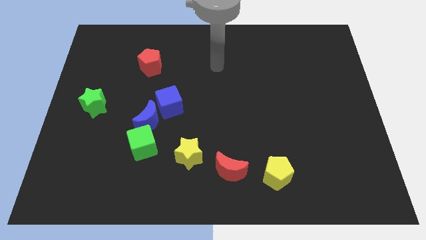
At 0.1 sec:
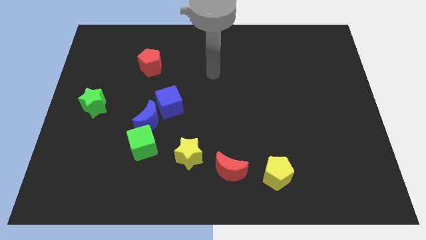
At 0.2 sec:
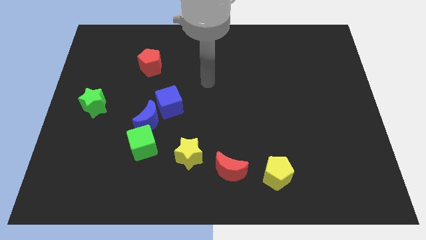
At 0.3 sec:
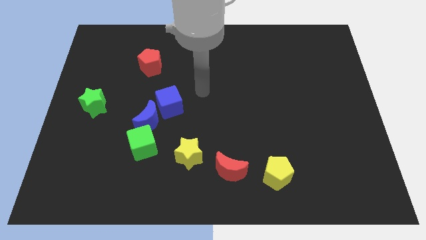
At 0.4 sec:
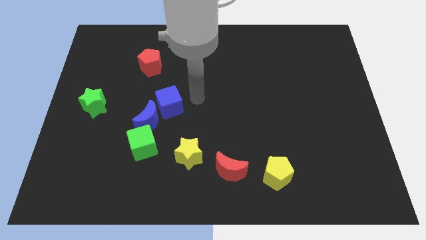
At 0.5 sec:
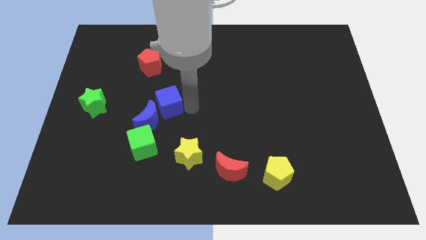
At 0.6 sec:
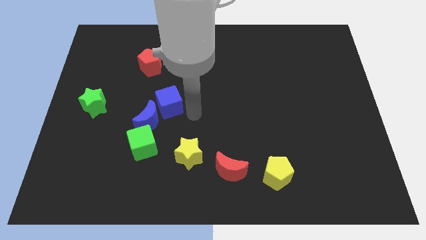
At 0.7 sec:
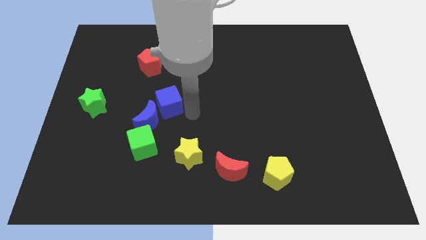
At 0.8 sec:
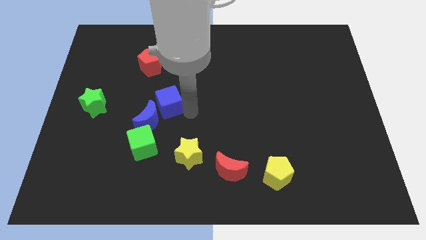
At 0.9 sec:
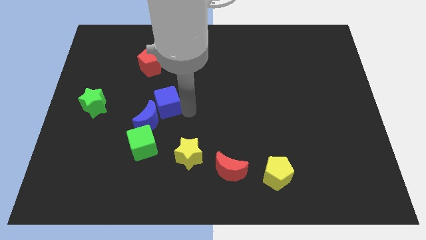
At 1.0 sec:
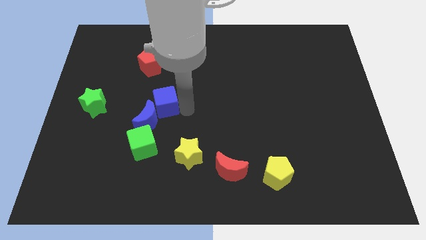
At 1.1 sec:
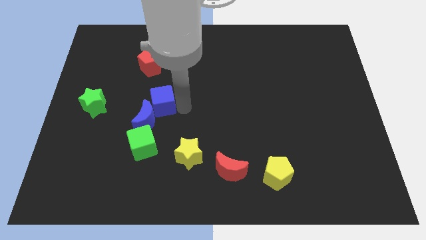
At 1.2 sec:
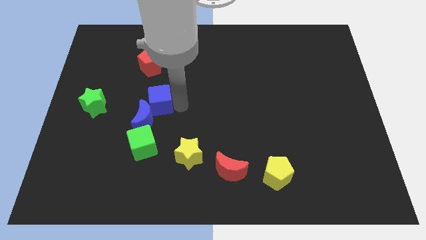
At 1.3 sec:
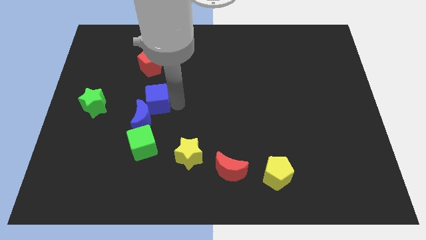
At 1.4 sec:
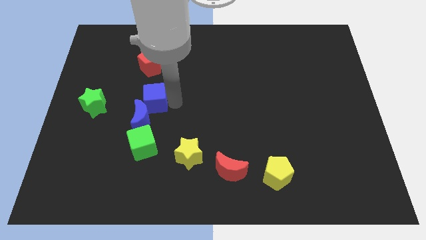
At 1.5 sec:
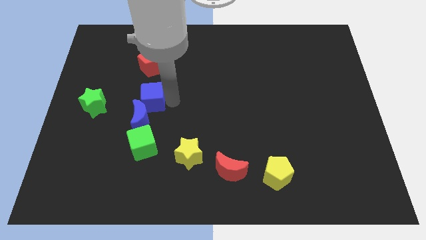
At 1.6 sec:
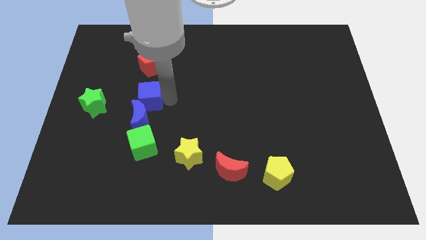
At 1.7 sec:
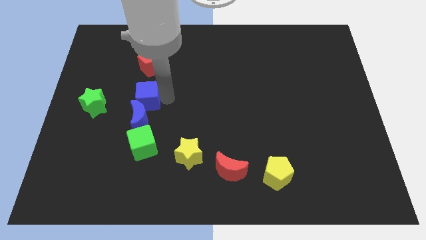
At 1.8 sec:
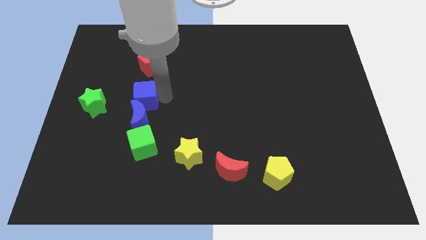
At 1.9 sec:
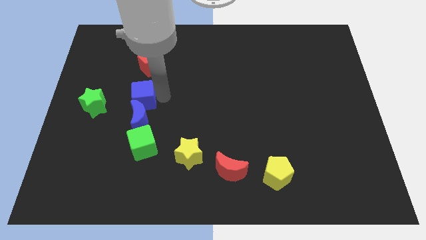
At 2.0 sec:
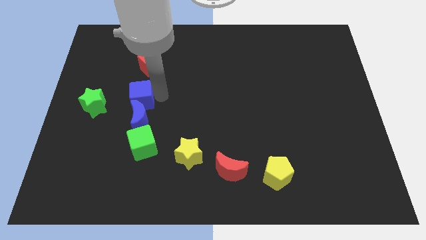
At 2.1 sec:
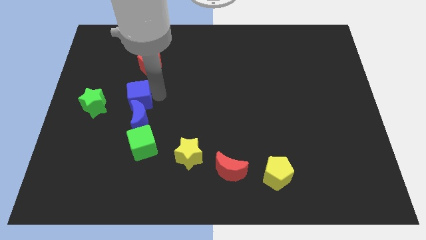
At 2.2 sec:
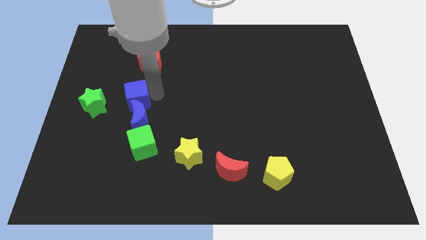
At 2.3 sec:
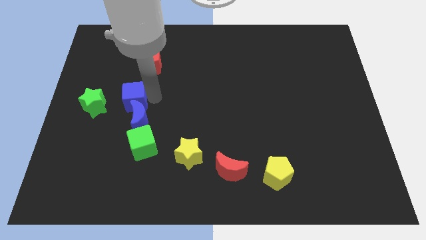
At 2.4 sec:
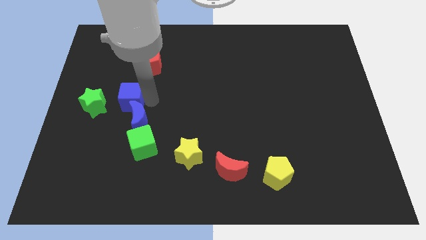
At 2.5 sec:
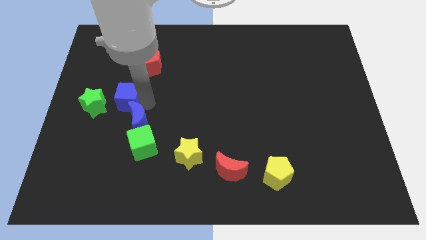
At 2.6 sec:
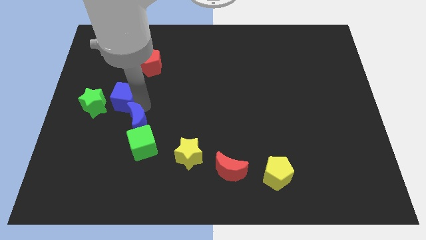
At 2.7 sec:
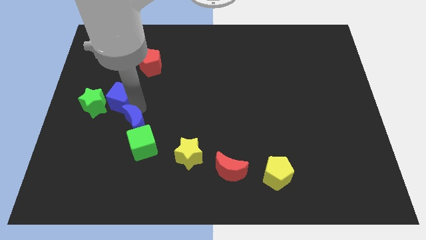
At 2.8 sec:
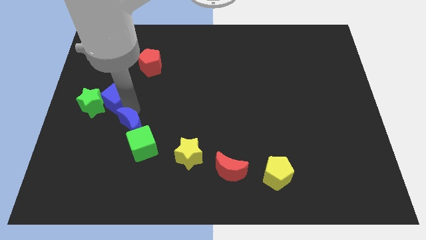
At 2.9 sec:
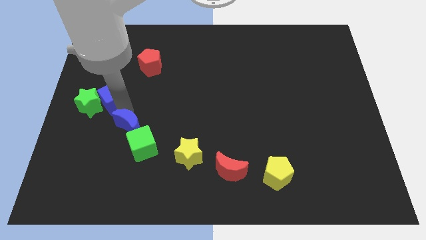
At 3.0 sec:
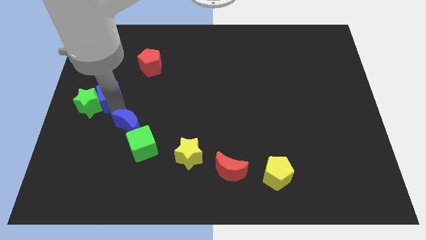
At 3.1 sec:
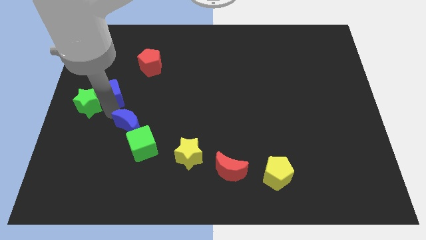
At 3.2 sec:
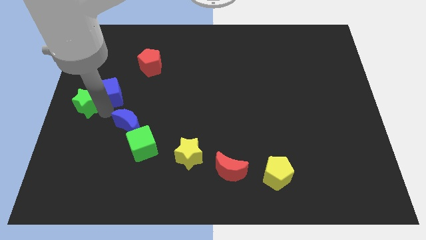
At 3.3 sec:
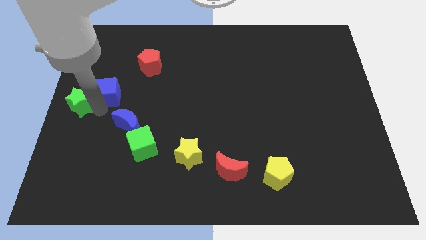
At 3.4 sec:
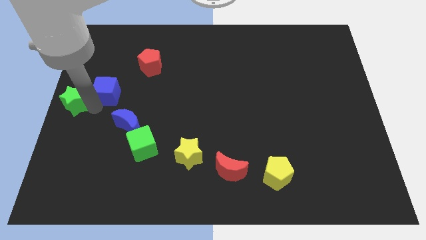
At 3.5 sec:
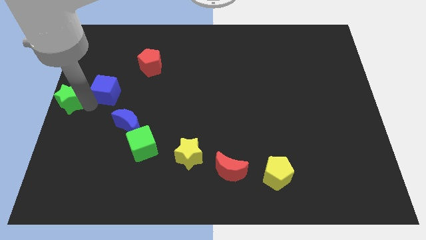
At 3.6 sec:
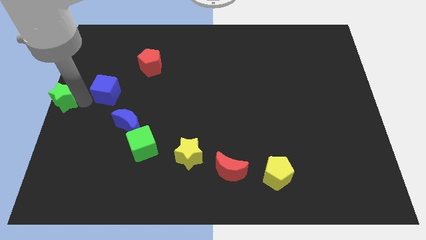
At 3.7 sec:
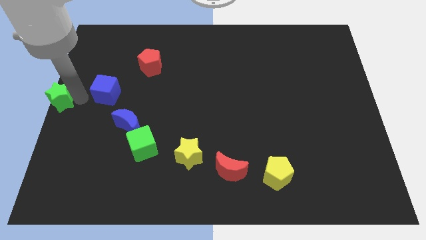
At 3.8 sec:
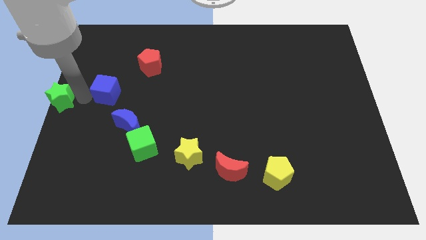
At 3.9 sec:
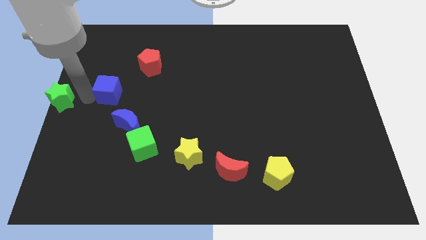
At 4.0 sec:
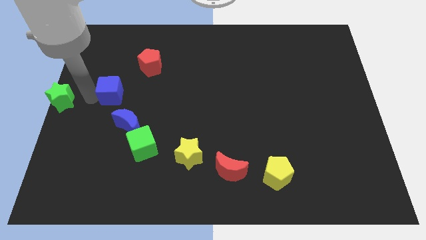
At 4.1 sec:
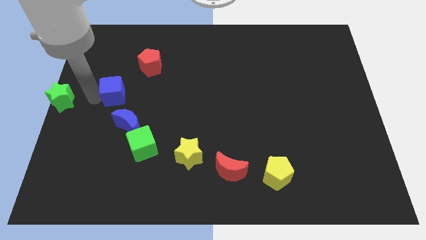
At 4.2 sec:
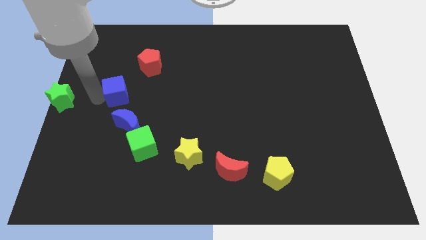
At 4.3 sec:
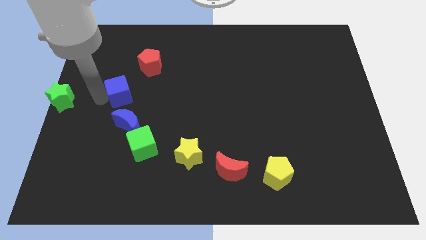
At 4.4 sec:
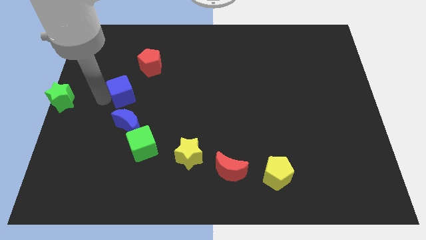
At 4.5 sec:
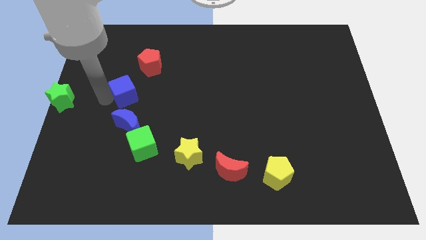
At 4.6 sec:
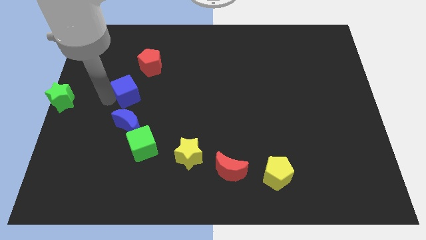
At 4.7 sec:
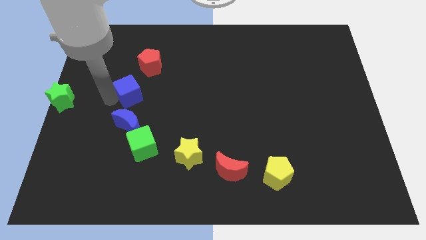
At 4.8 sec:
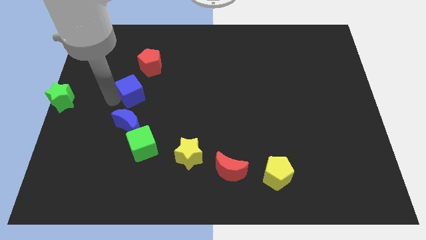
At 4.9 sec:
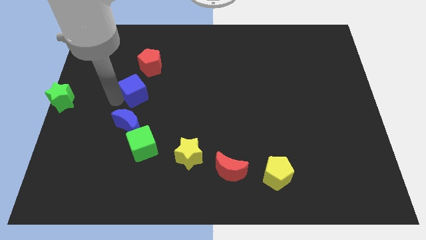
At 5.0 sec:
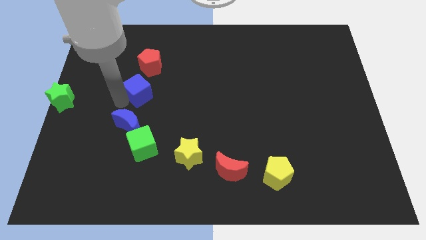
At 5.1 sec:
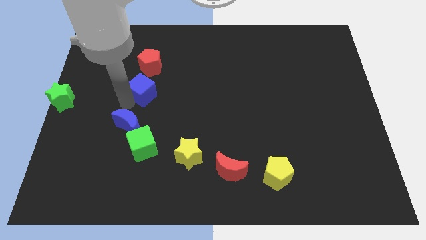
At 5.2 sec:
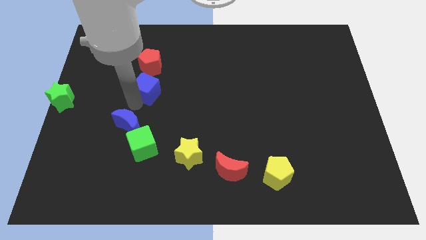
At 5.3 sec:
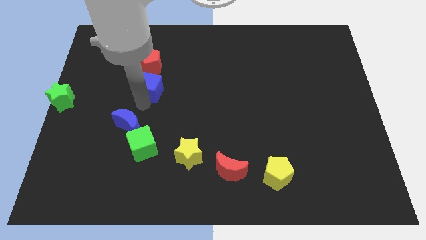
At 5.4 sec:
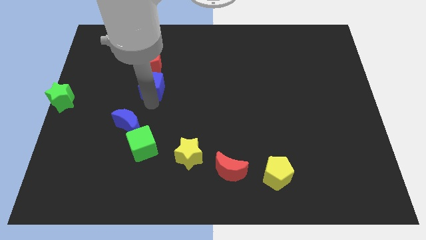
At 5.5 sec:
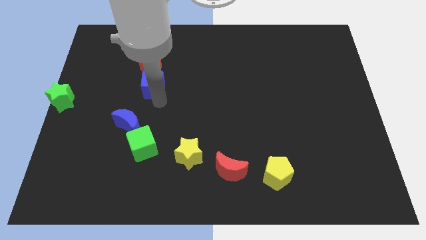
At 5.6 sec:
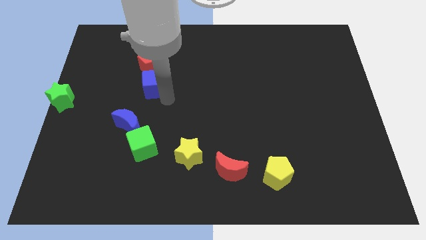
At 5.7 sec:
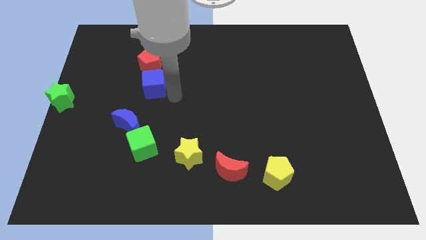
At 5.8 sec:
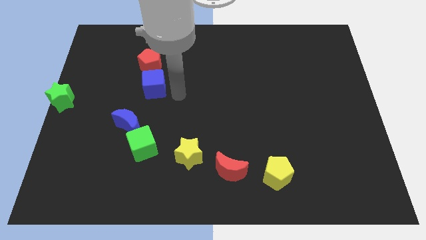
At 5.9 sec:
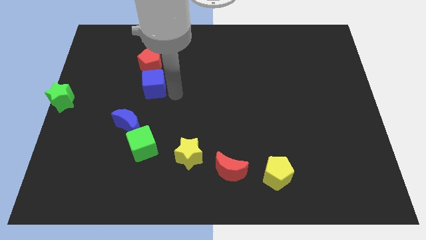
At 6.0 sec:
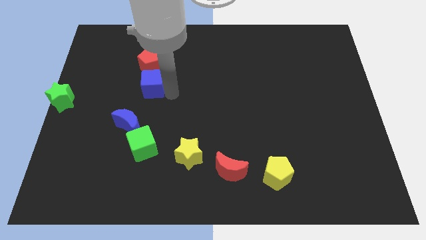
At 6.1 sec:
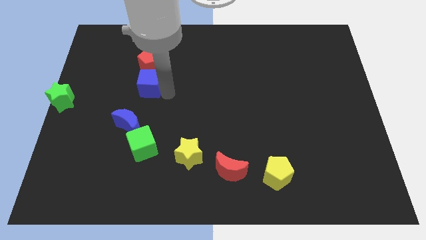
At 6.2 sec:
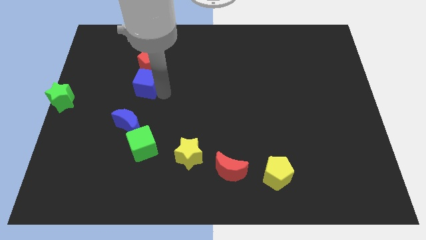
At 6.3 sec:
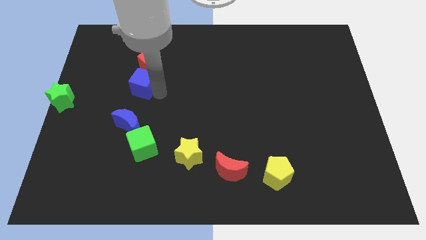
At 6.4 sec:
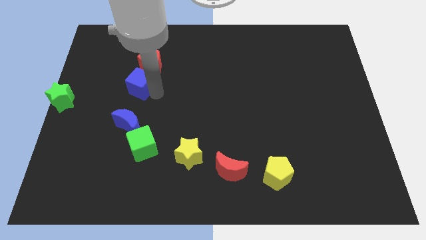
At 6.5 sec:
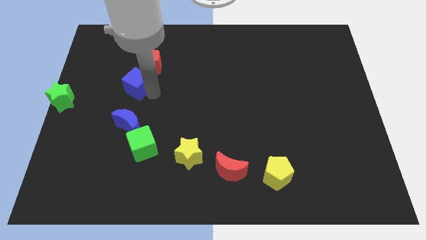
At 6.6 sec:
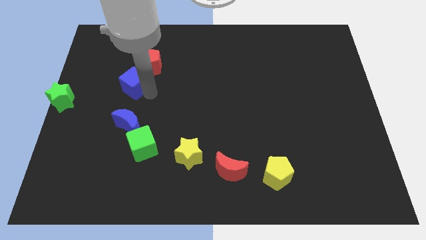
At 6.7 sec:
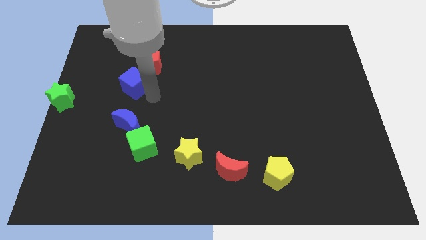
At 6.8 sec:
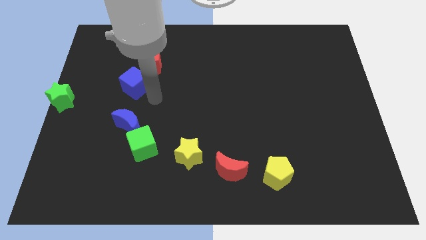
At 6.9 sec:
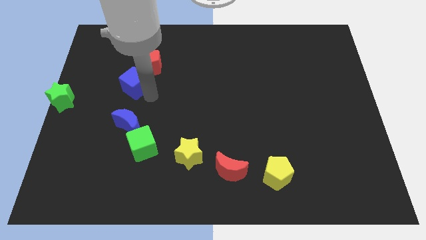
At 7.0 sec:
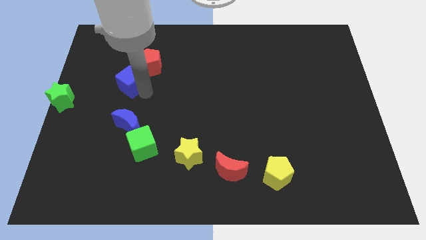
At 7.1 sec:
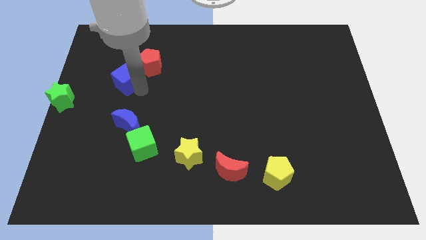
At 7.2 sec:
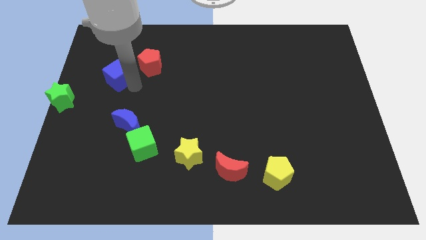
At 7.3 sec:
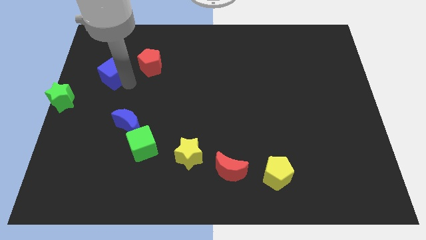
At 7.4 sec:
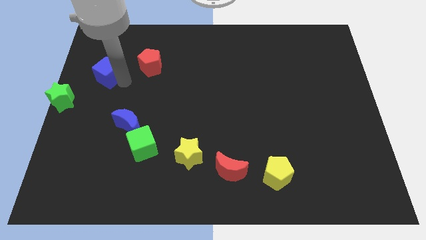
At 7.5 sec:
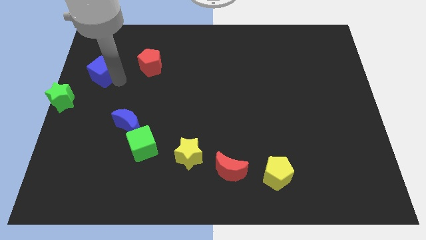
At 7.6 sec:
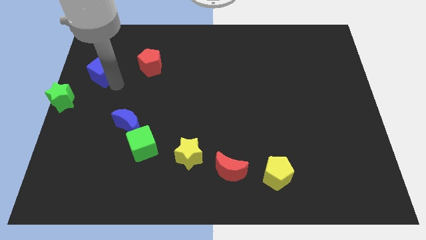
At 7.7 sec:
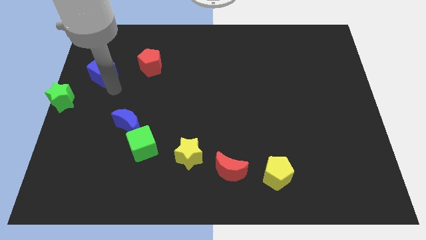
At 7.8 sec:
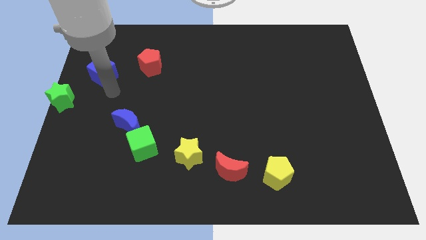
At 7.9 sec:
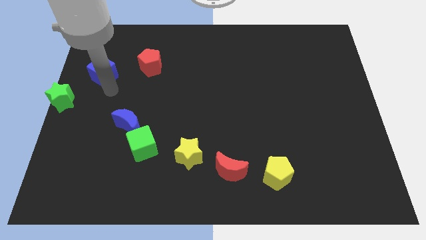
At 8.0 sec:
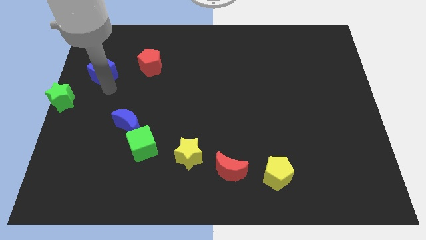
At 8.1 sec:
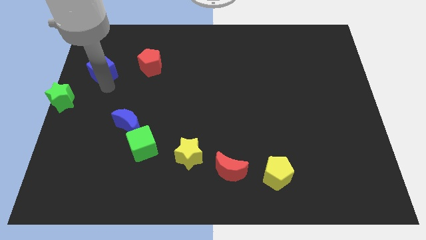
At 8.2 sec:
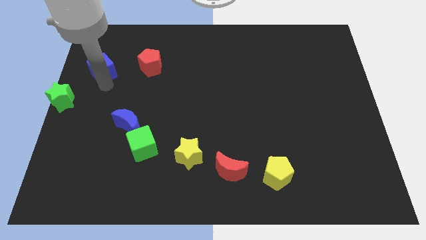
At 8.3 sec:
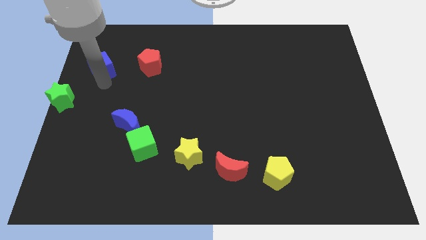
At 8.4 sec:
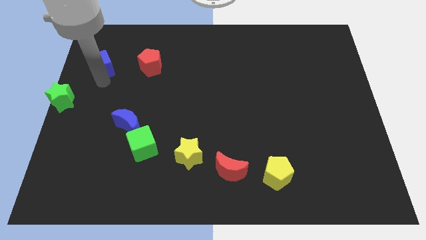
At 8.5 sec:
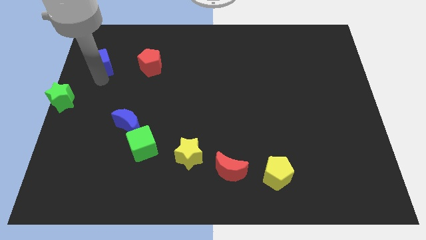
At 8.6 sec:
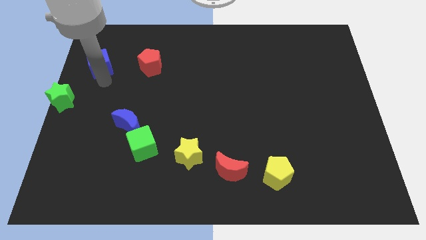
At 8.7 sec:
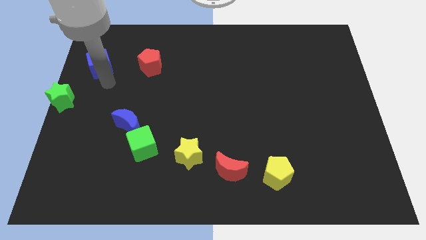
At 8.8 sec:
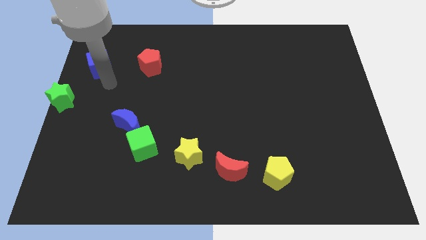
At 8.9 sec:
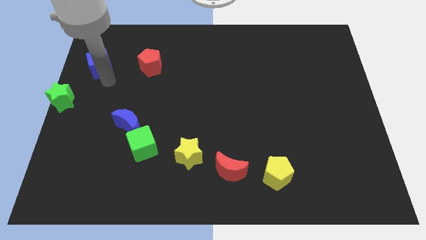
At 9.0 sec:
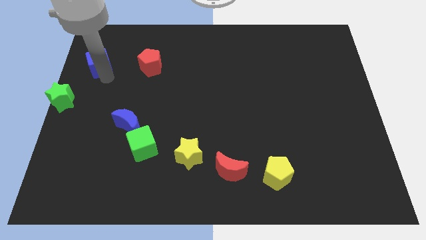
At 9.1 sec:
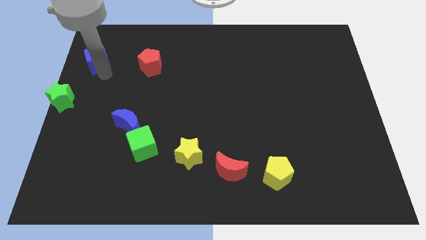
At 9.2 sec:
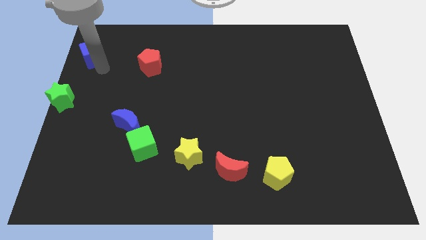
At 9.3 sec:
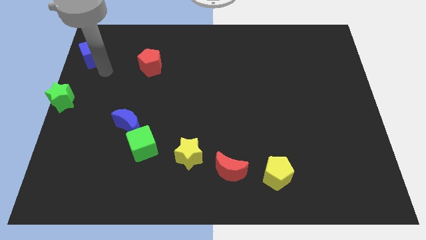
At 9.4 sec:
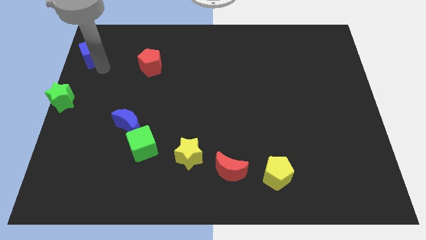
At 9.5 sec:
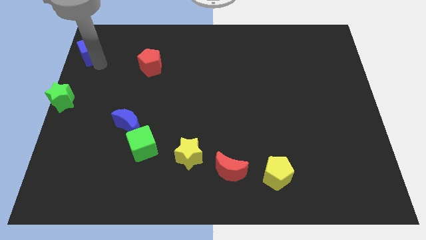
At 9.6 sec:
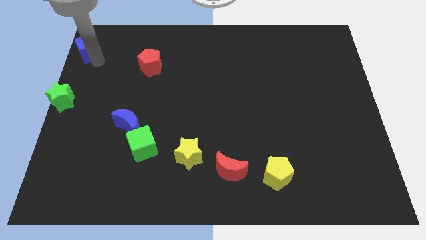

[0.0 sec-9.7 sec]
push the blue cube to the upper left corner
